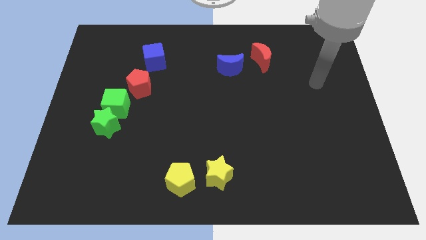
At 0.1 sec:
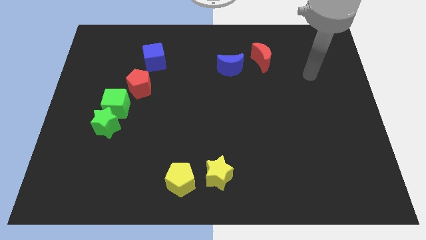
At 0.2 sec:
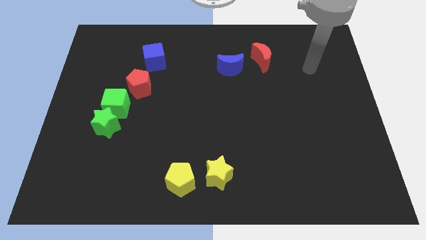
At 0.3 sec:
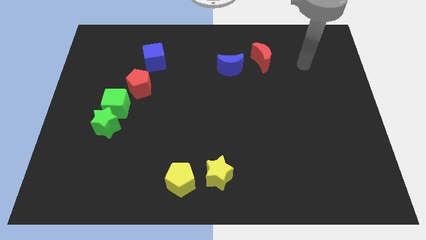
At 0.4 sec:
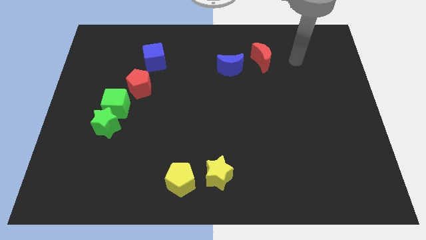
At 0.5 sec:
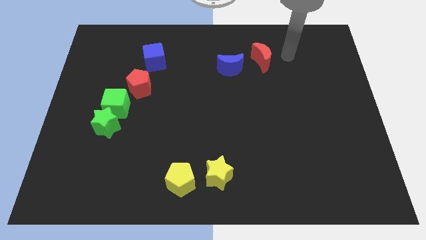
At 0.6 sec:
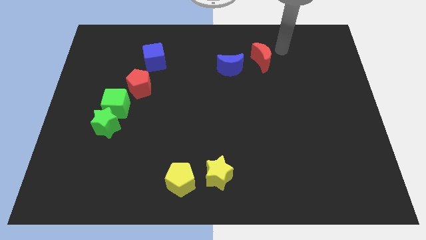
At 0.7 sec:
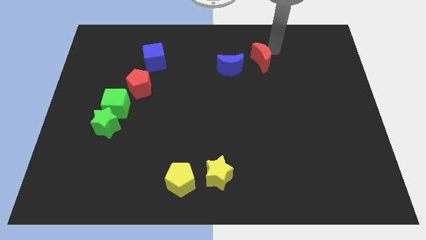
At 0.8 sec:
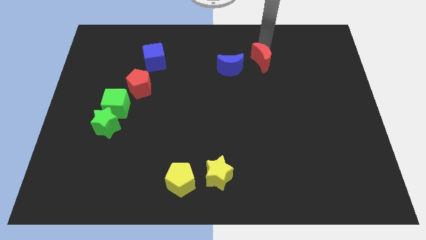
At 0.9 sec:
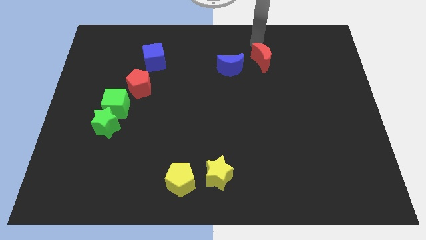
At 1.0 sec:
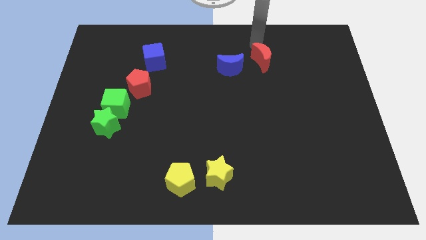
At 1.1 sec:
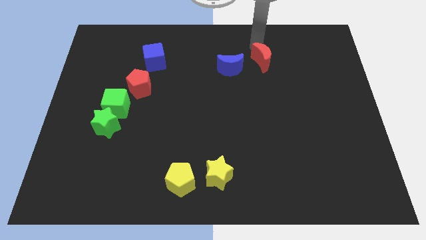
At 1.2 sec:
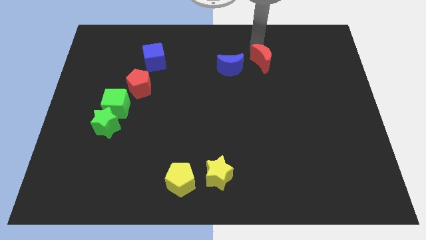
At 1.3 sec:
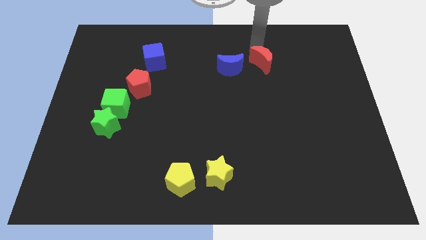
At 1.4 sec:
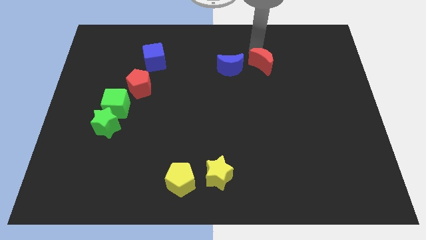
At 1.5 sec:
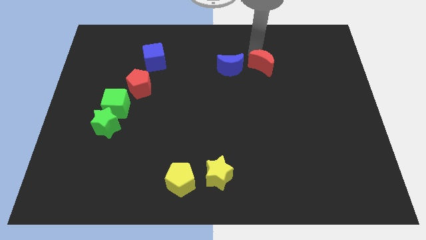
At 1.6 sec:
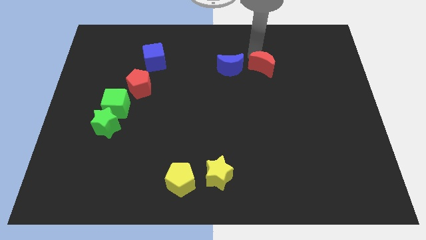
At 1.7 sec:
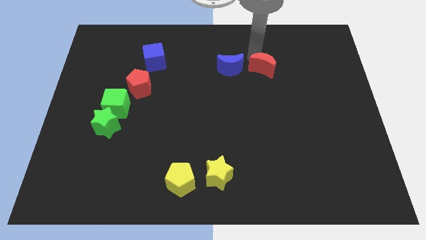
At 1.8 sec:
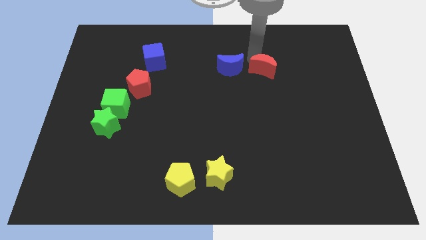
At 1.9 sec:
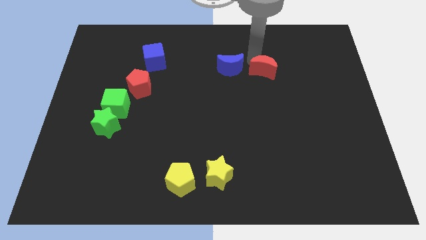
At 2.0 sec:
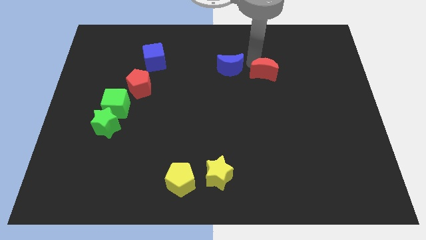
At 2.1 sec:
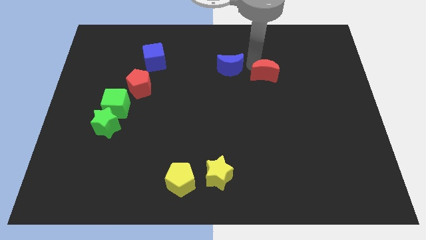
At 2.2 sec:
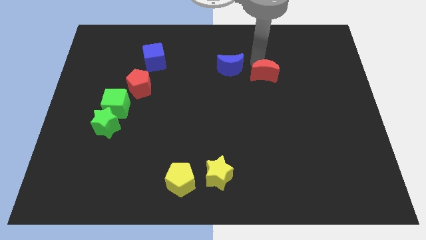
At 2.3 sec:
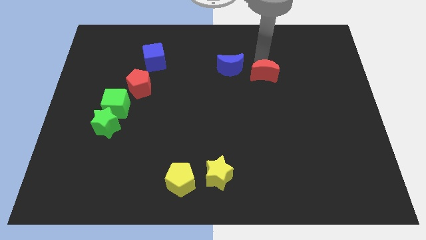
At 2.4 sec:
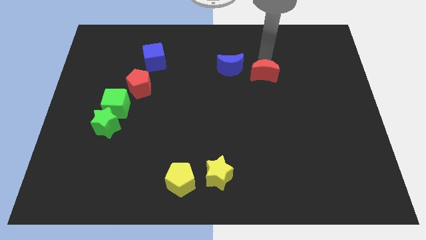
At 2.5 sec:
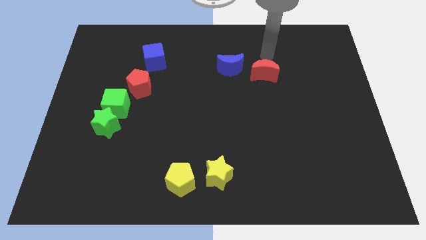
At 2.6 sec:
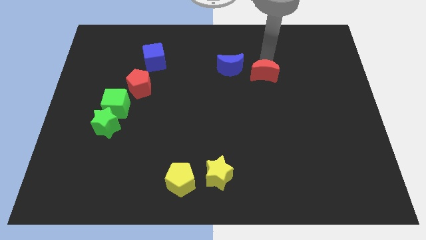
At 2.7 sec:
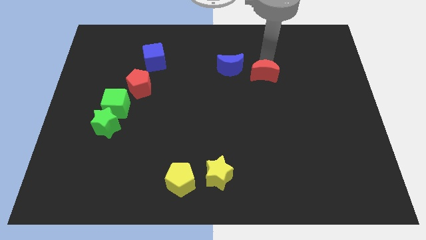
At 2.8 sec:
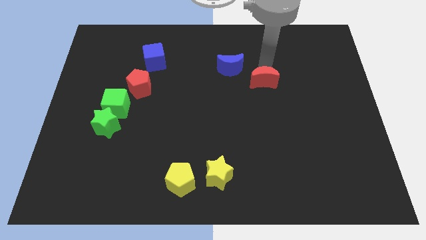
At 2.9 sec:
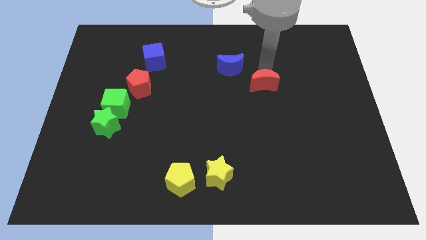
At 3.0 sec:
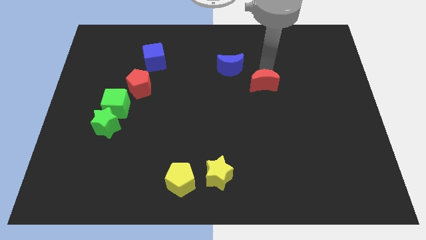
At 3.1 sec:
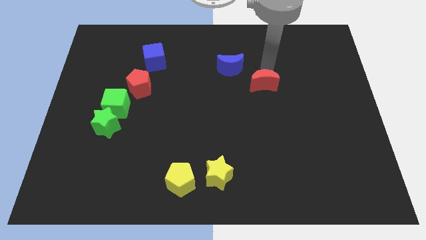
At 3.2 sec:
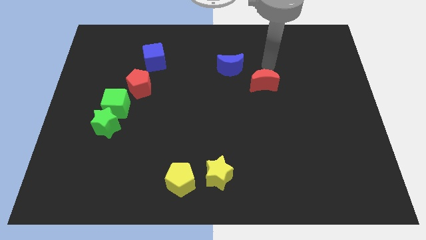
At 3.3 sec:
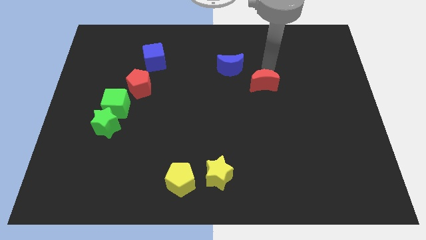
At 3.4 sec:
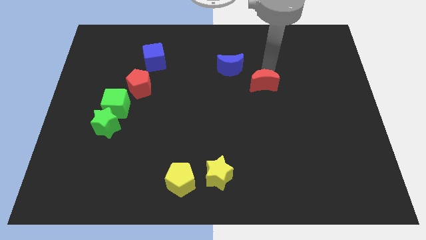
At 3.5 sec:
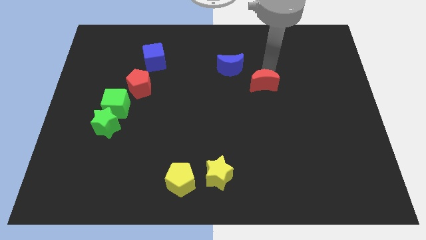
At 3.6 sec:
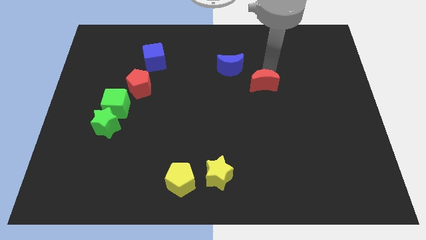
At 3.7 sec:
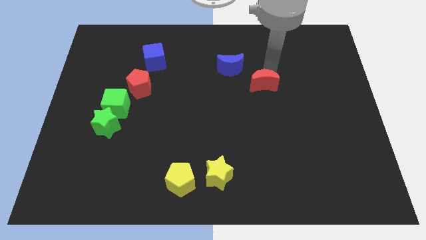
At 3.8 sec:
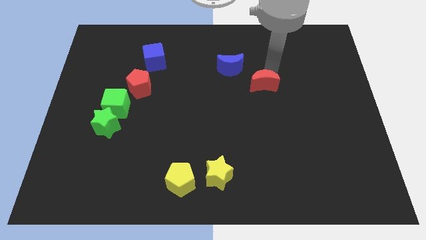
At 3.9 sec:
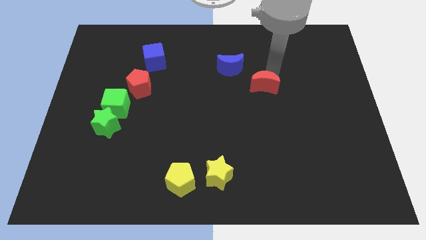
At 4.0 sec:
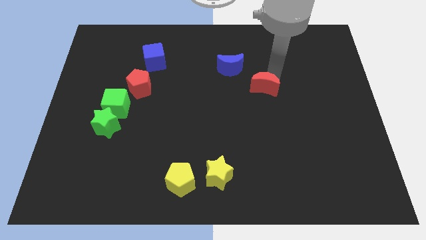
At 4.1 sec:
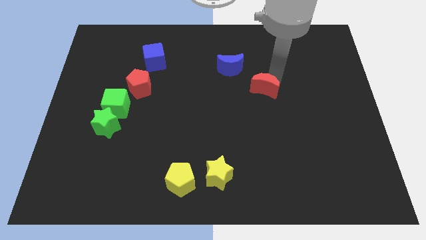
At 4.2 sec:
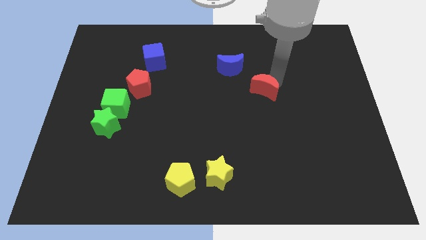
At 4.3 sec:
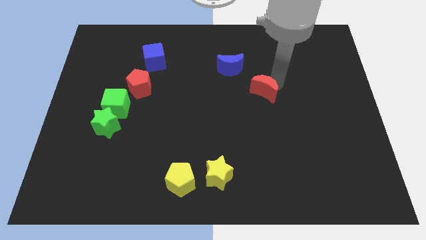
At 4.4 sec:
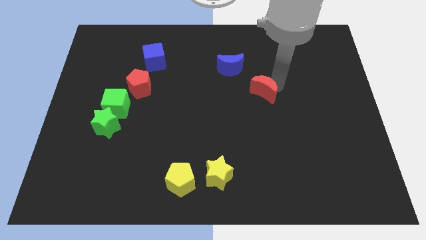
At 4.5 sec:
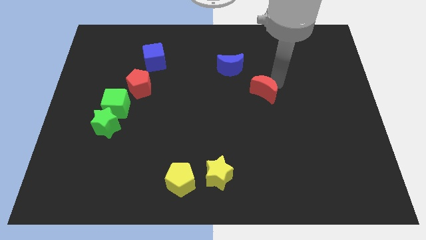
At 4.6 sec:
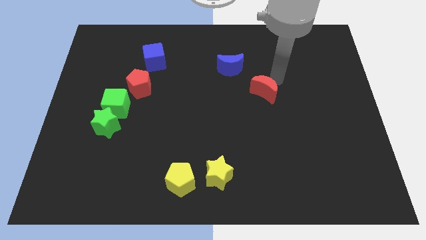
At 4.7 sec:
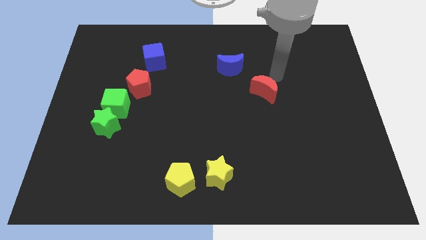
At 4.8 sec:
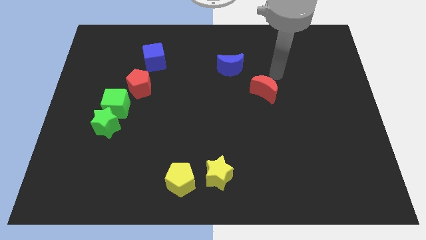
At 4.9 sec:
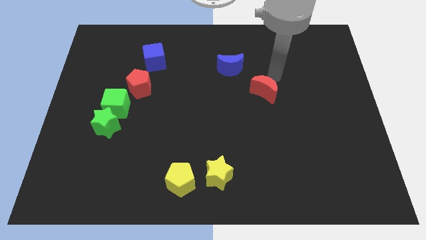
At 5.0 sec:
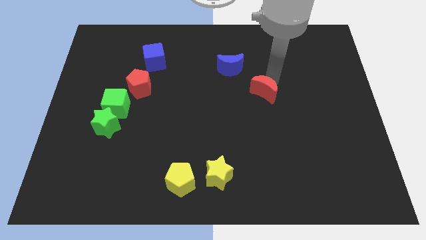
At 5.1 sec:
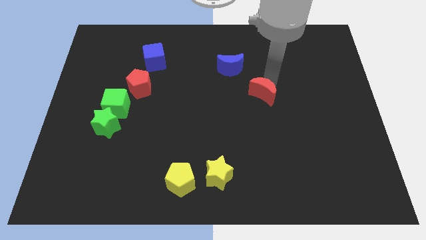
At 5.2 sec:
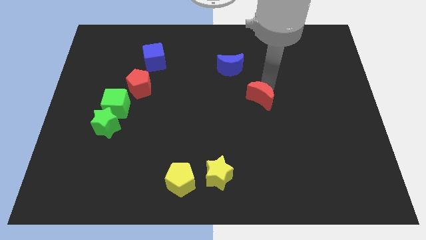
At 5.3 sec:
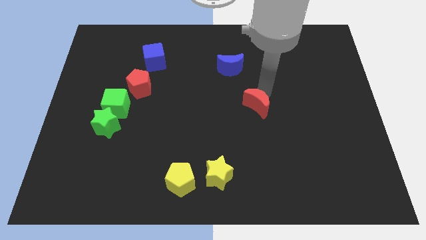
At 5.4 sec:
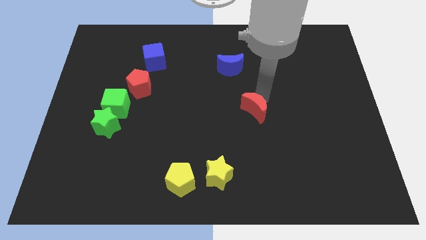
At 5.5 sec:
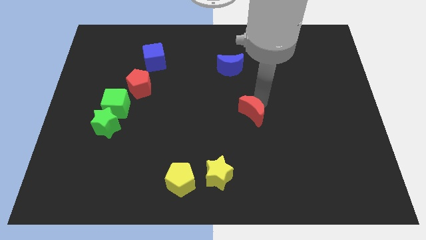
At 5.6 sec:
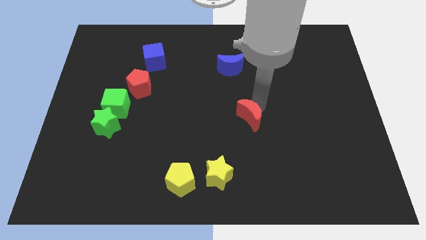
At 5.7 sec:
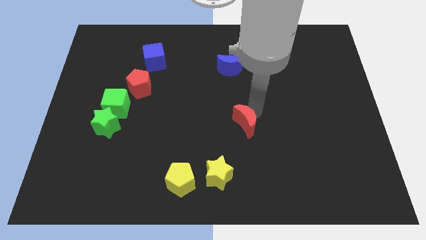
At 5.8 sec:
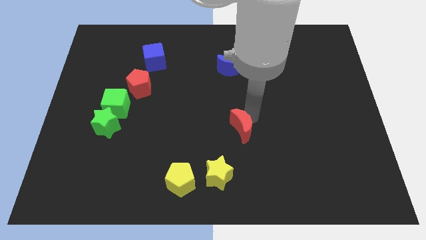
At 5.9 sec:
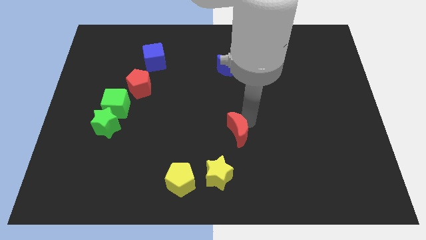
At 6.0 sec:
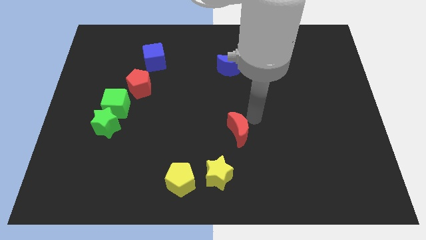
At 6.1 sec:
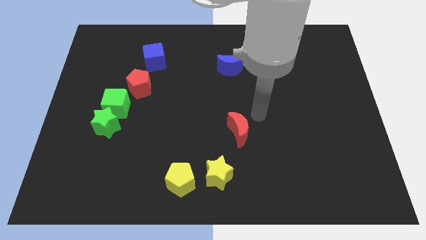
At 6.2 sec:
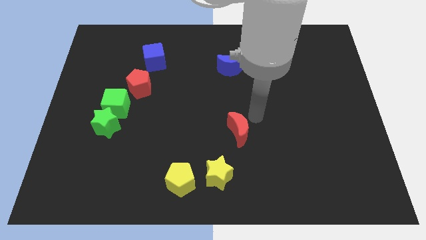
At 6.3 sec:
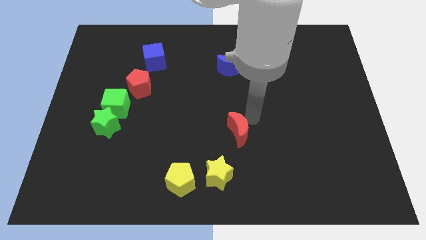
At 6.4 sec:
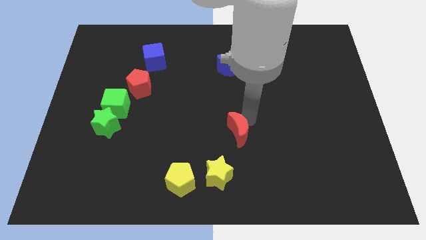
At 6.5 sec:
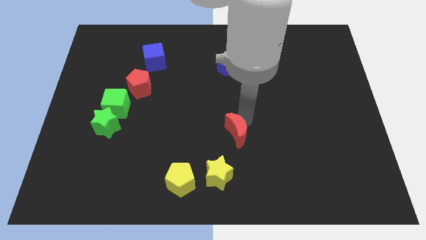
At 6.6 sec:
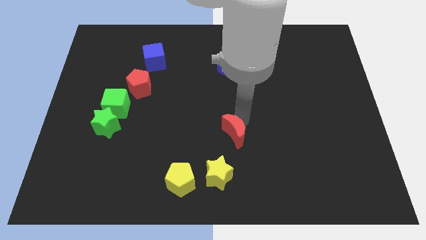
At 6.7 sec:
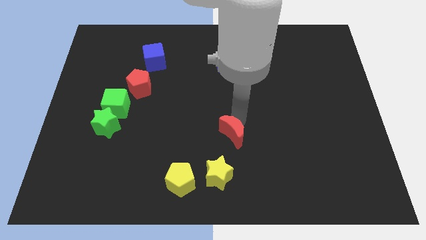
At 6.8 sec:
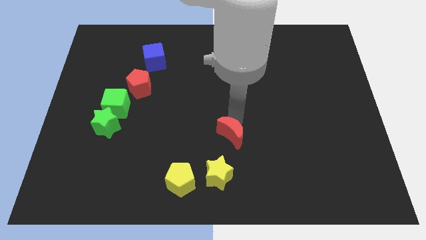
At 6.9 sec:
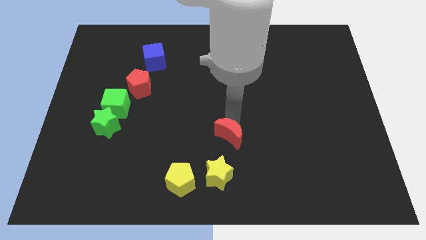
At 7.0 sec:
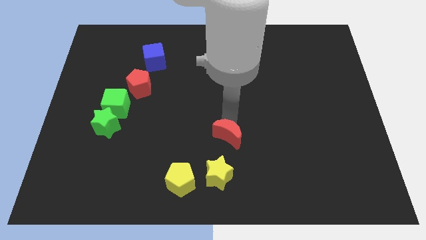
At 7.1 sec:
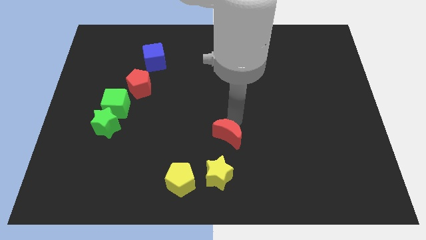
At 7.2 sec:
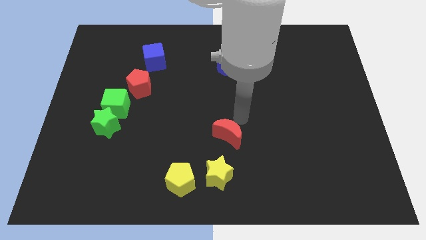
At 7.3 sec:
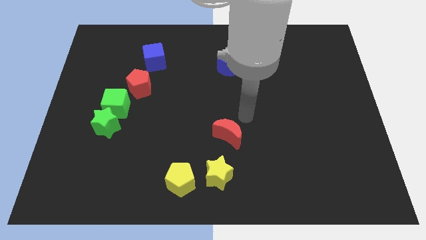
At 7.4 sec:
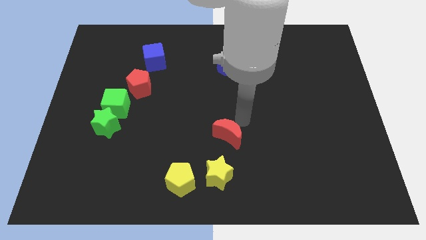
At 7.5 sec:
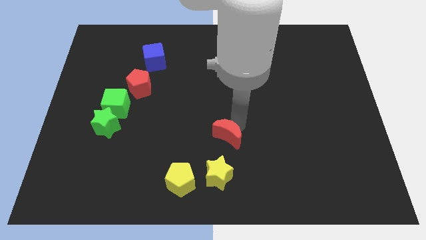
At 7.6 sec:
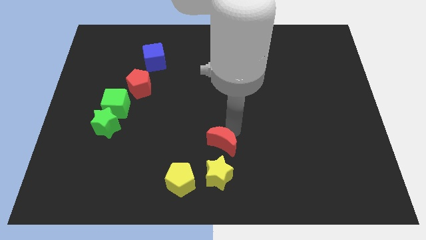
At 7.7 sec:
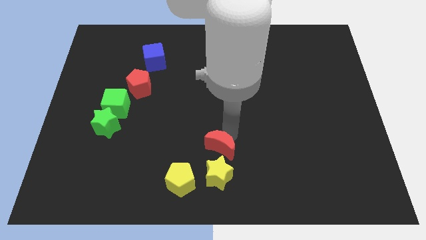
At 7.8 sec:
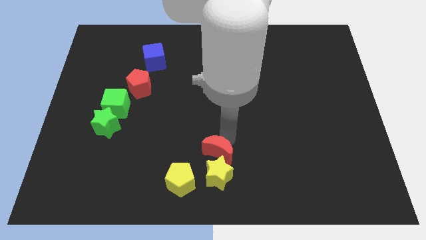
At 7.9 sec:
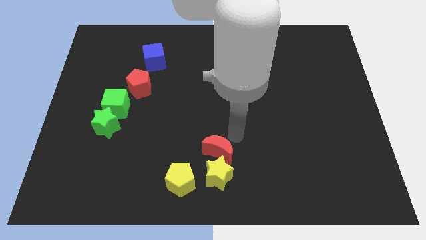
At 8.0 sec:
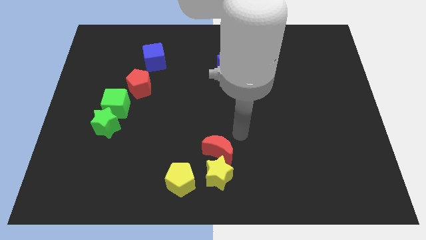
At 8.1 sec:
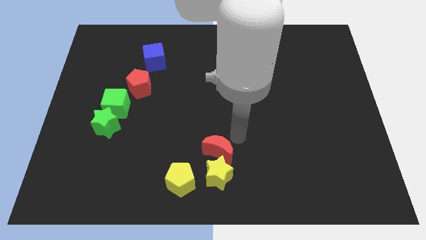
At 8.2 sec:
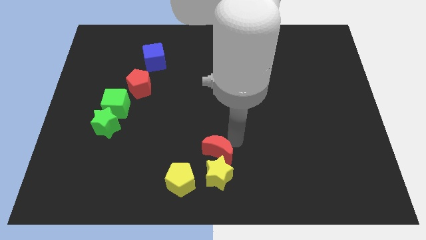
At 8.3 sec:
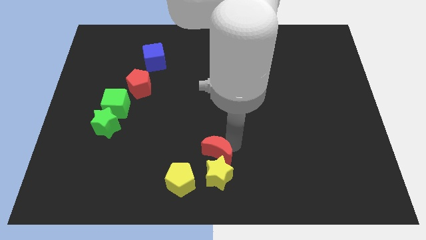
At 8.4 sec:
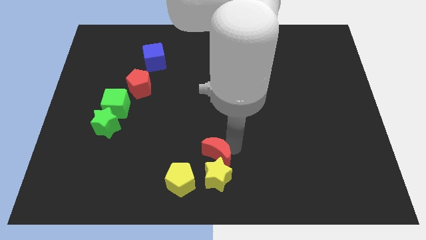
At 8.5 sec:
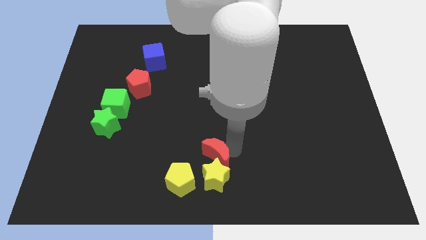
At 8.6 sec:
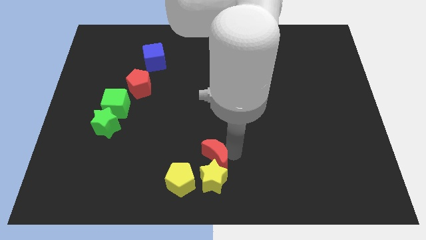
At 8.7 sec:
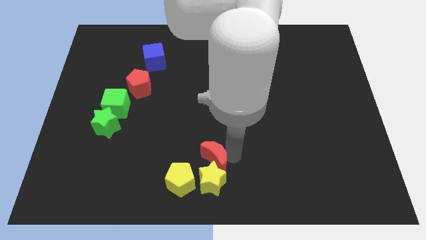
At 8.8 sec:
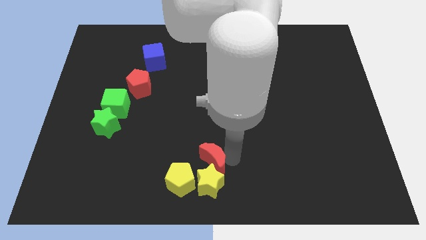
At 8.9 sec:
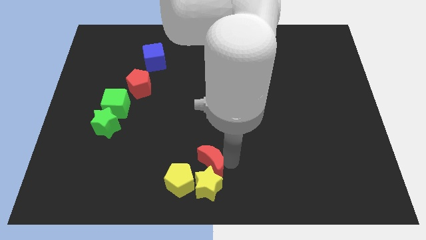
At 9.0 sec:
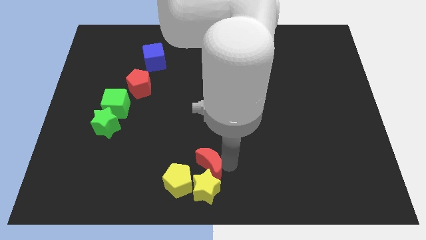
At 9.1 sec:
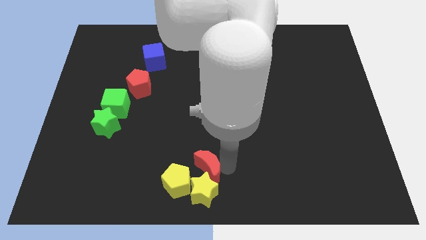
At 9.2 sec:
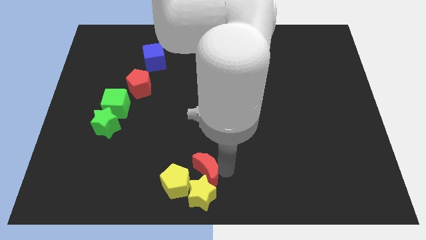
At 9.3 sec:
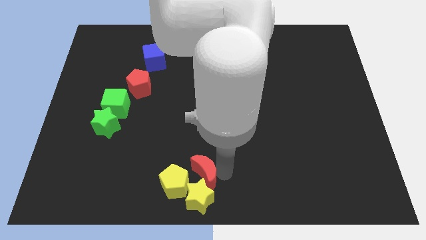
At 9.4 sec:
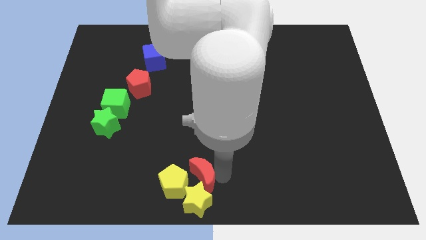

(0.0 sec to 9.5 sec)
put the red moon towards the yellow pentagon
